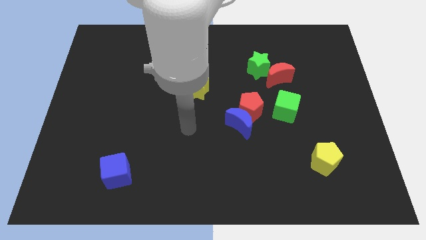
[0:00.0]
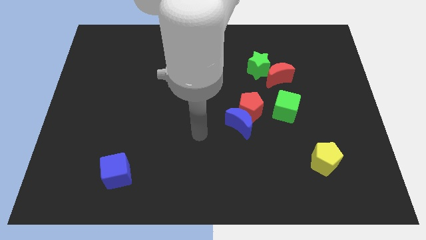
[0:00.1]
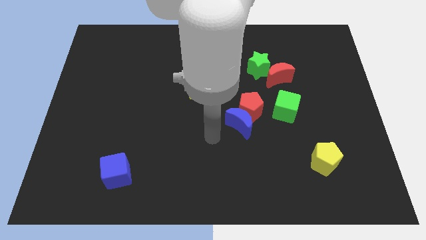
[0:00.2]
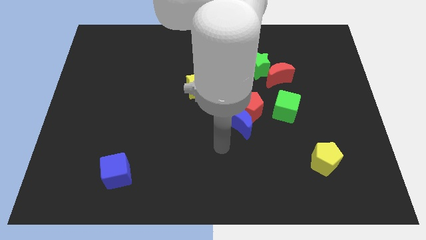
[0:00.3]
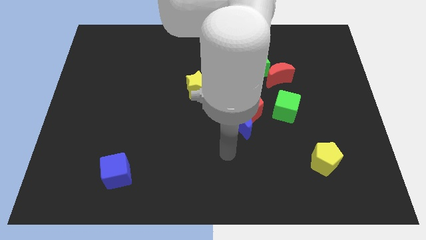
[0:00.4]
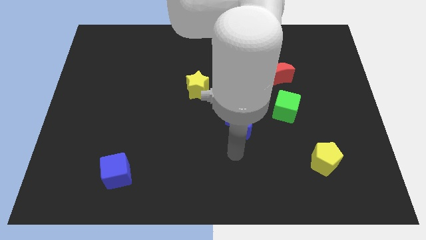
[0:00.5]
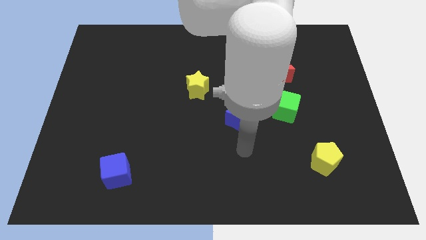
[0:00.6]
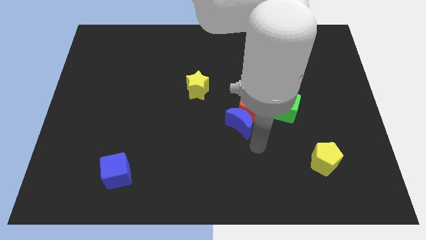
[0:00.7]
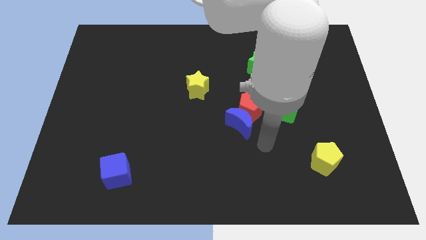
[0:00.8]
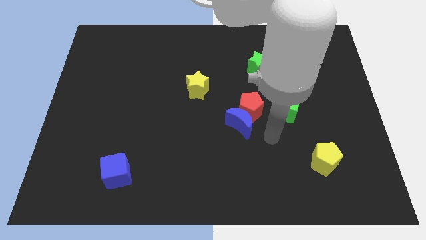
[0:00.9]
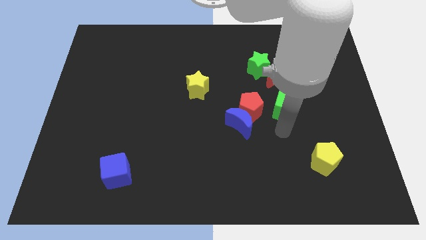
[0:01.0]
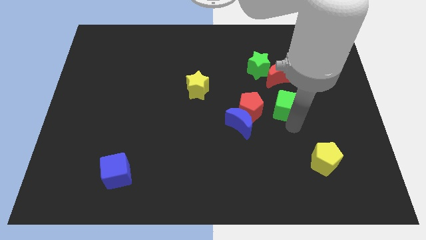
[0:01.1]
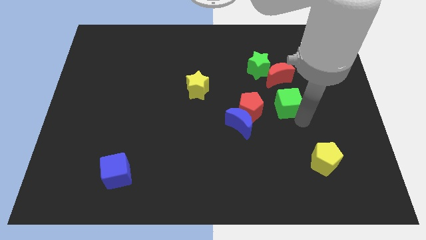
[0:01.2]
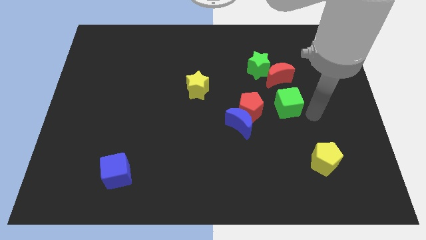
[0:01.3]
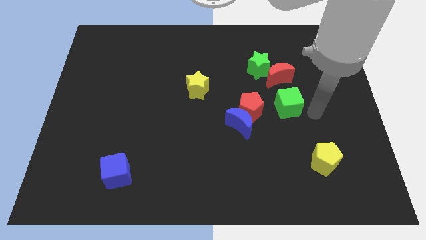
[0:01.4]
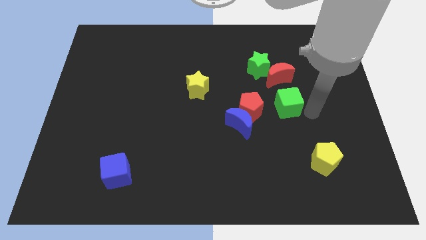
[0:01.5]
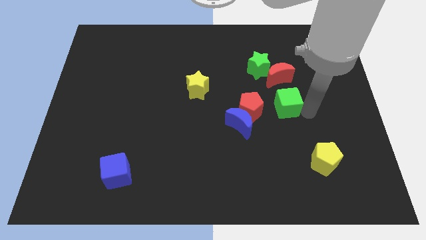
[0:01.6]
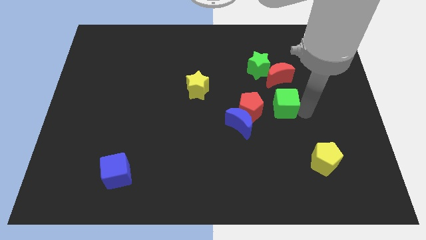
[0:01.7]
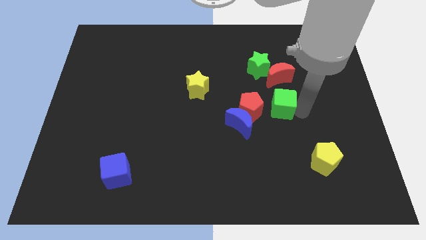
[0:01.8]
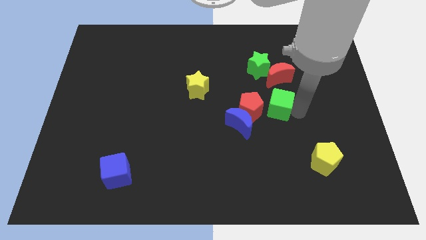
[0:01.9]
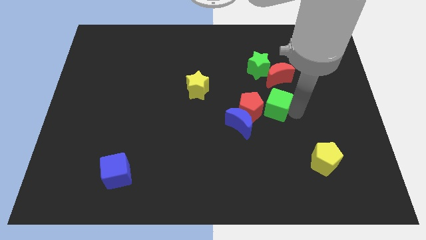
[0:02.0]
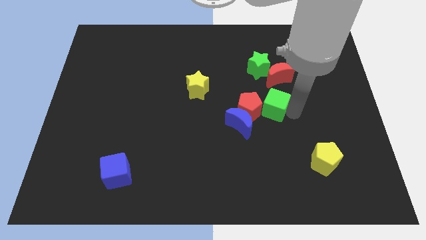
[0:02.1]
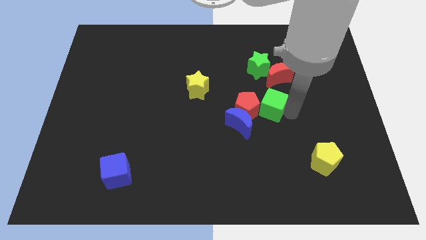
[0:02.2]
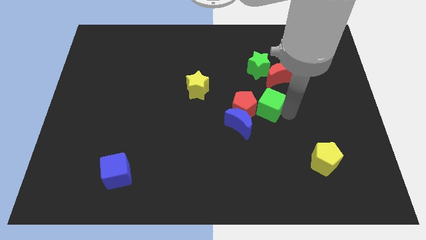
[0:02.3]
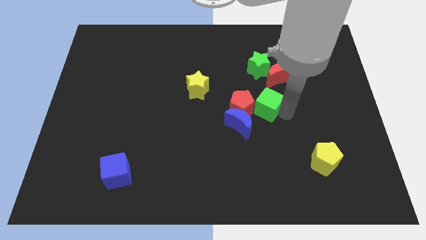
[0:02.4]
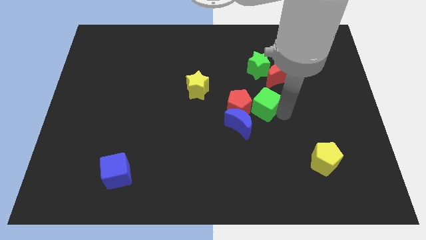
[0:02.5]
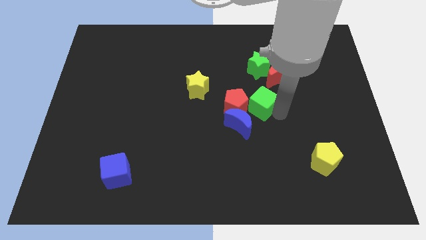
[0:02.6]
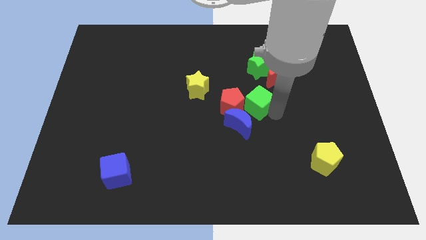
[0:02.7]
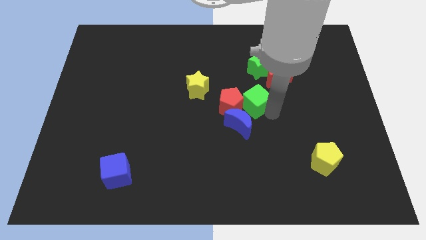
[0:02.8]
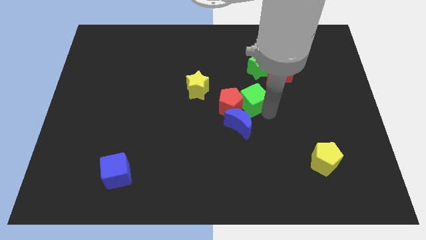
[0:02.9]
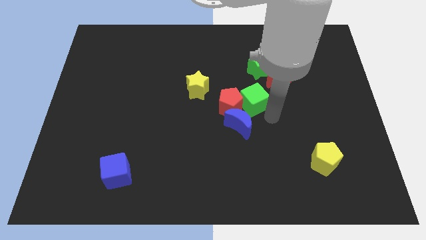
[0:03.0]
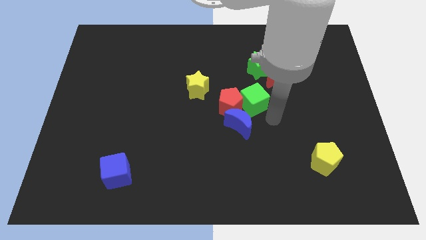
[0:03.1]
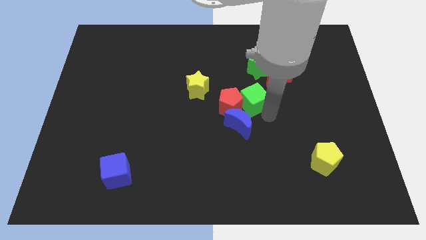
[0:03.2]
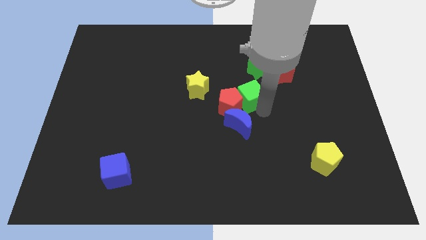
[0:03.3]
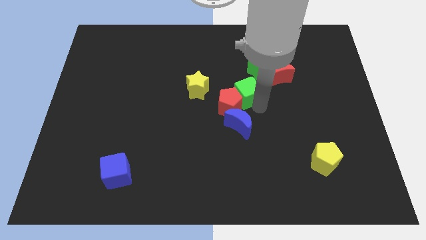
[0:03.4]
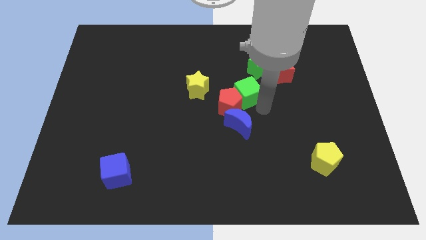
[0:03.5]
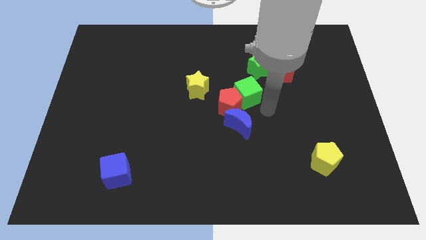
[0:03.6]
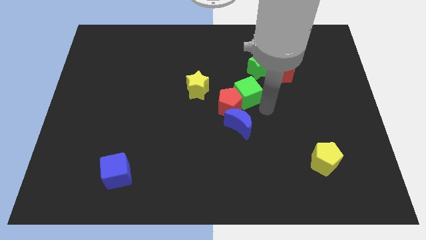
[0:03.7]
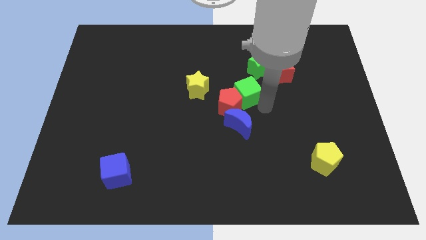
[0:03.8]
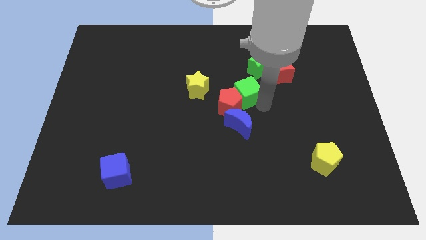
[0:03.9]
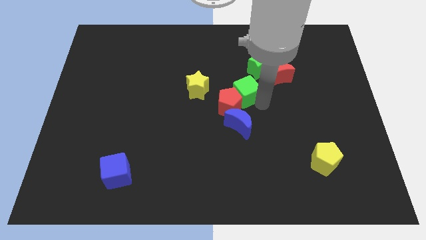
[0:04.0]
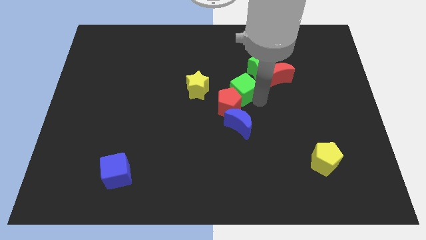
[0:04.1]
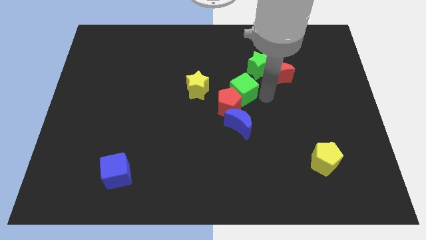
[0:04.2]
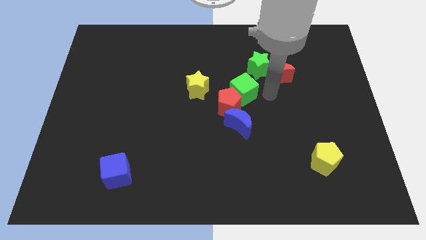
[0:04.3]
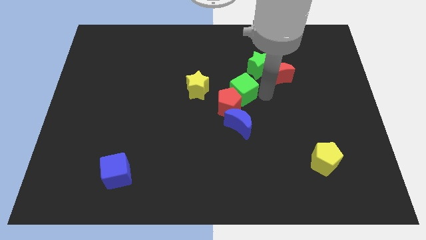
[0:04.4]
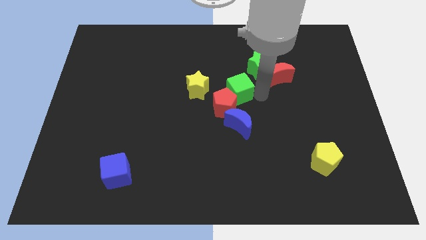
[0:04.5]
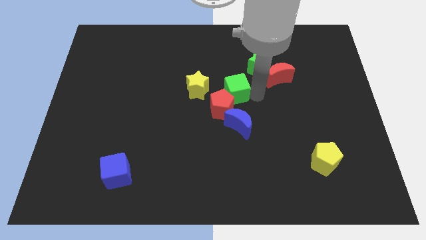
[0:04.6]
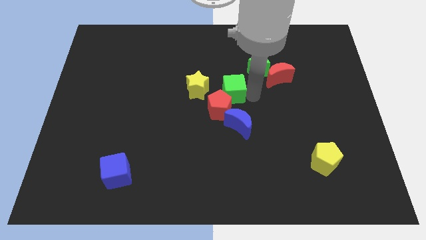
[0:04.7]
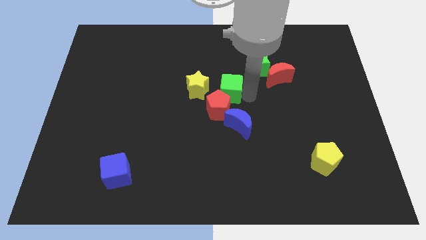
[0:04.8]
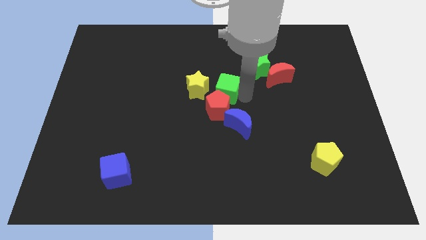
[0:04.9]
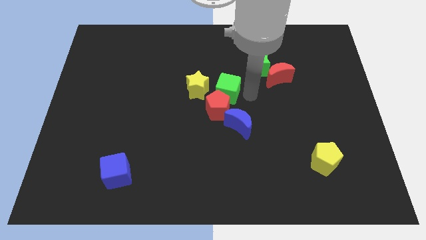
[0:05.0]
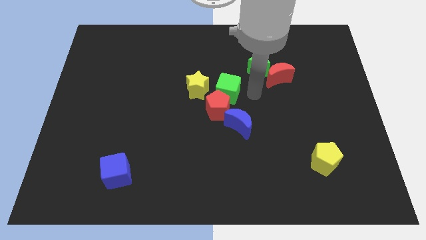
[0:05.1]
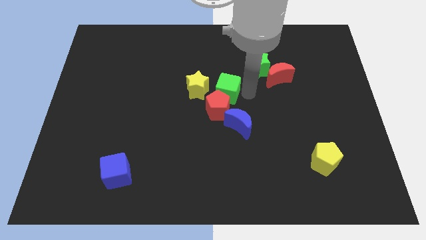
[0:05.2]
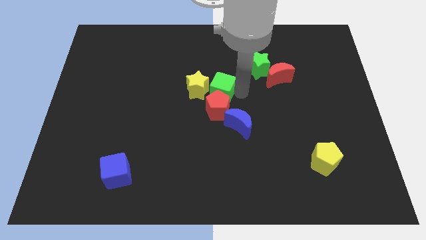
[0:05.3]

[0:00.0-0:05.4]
put the green cube close to the yellow star

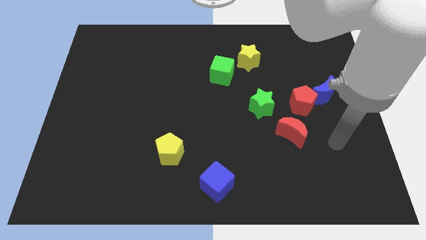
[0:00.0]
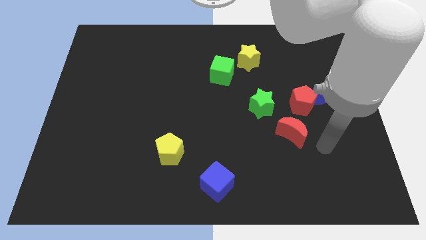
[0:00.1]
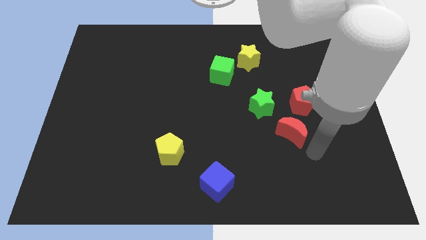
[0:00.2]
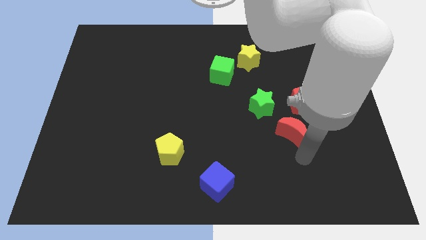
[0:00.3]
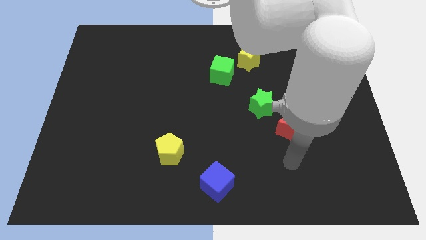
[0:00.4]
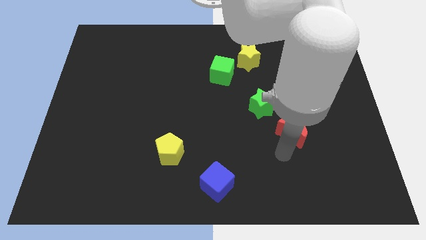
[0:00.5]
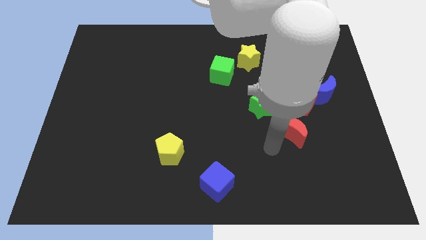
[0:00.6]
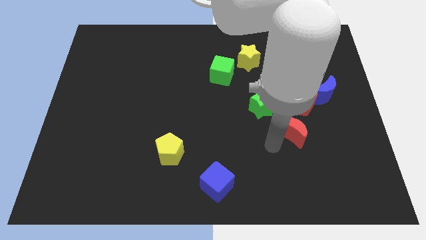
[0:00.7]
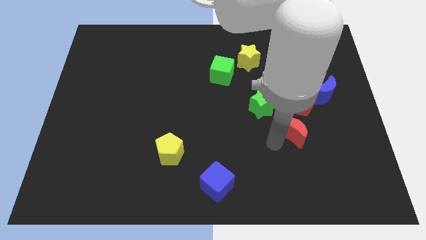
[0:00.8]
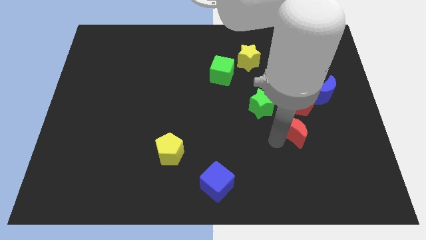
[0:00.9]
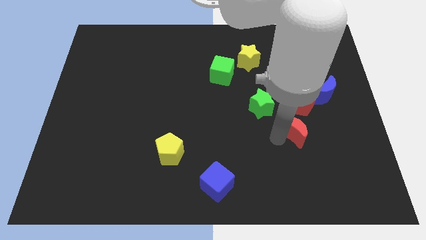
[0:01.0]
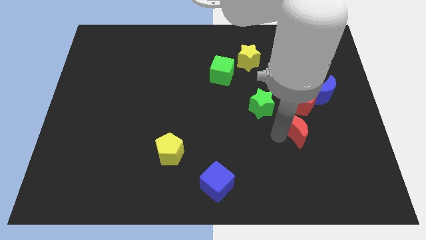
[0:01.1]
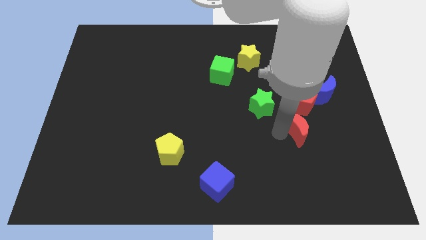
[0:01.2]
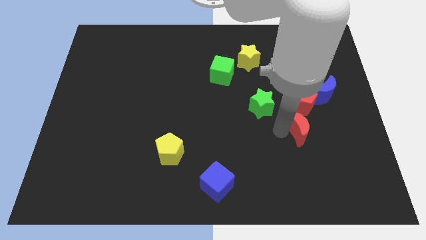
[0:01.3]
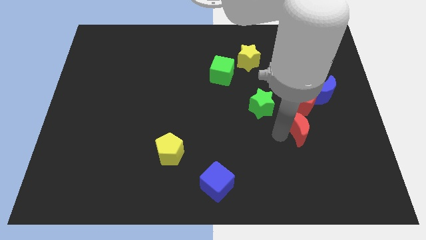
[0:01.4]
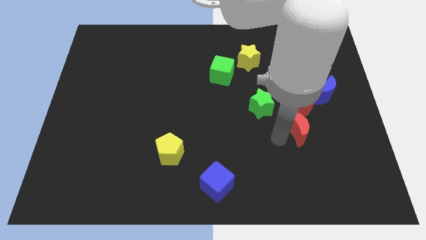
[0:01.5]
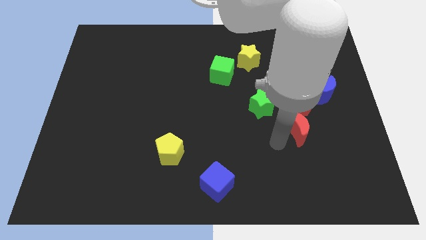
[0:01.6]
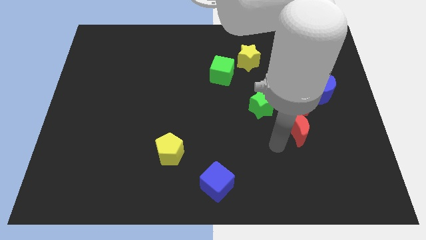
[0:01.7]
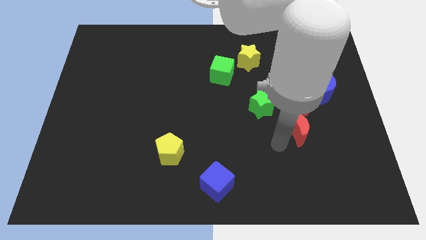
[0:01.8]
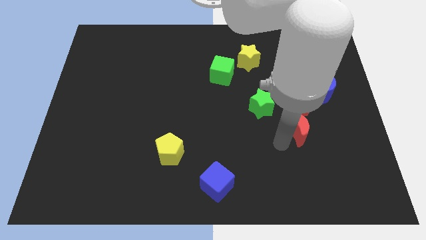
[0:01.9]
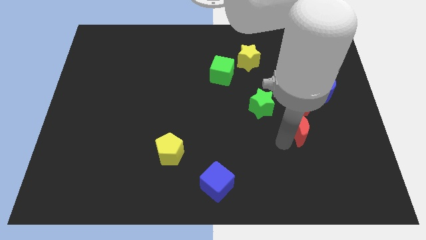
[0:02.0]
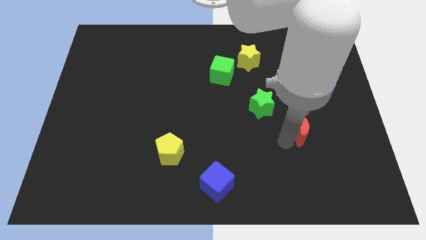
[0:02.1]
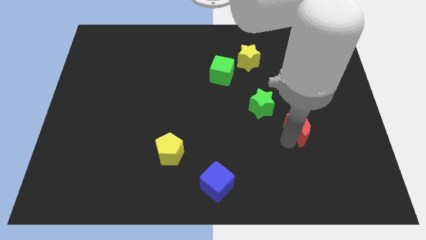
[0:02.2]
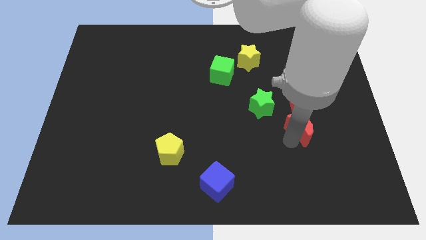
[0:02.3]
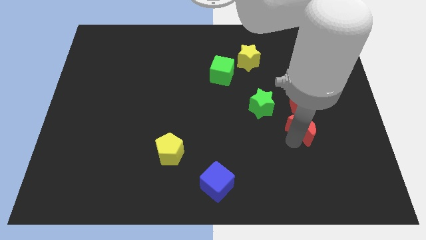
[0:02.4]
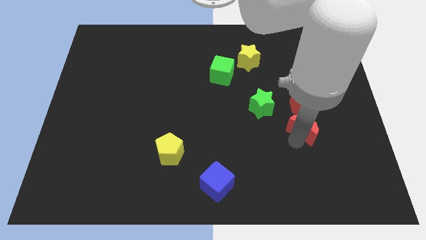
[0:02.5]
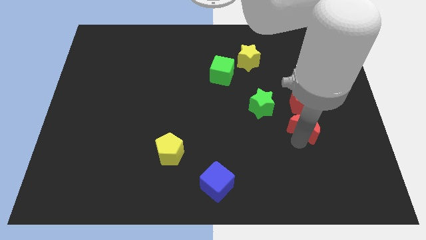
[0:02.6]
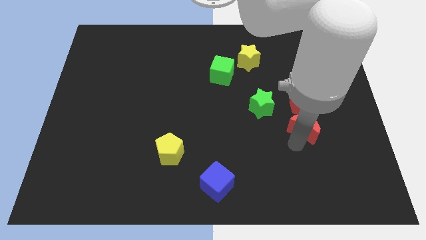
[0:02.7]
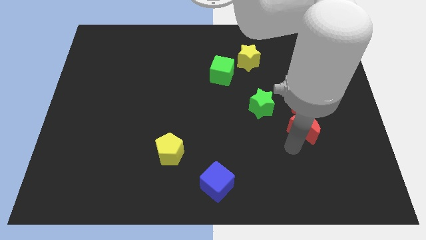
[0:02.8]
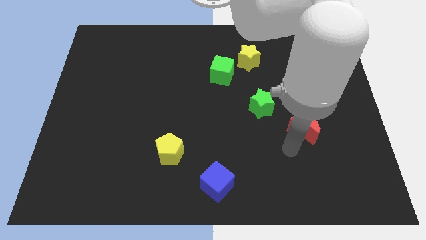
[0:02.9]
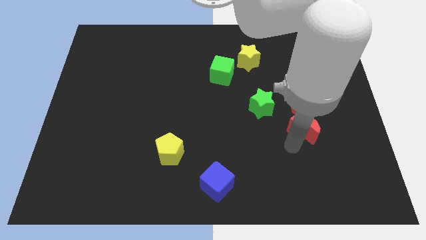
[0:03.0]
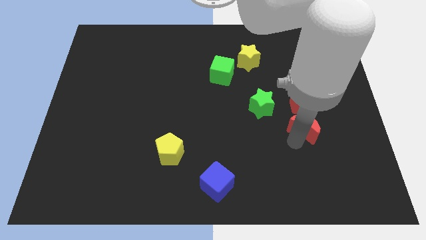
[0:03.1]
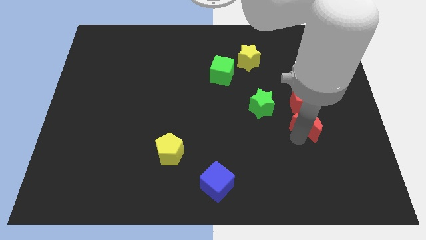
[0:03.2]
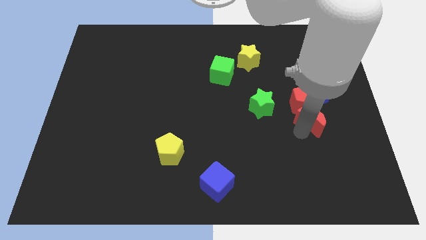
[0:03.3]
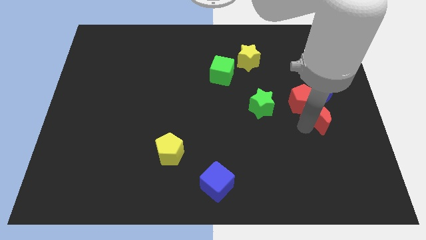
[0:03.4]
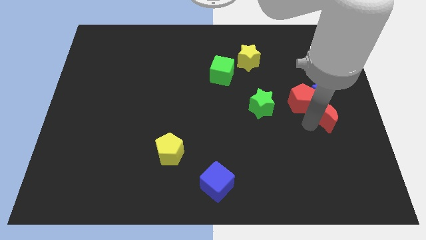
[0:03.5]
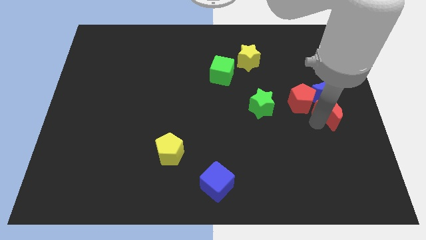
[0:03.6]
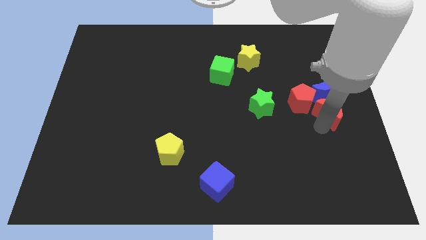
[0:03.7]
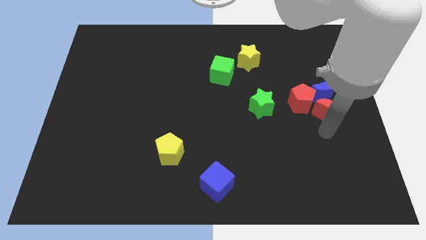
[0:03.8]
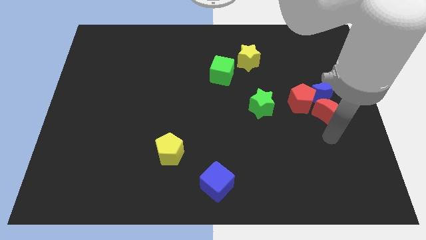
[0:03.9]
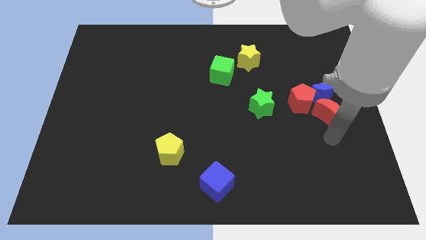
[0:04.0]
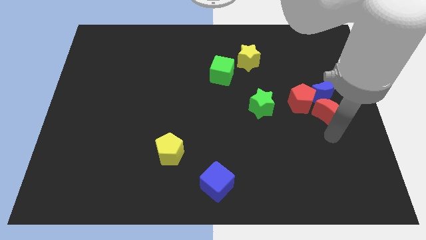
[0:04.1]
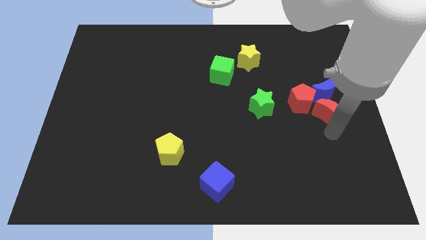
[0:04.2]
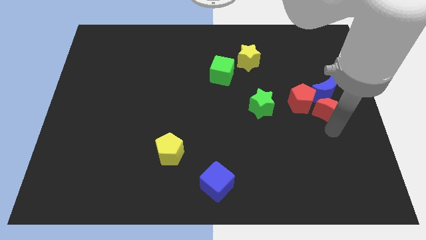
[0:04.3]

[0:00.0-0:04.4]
slide the red moon towards the blue moon
